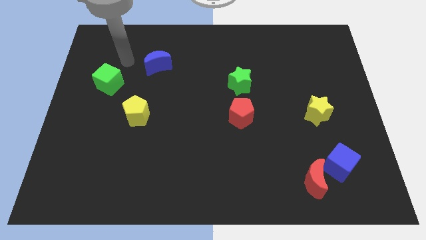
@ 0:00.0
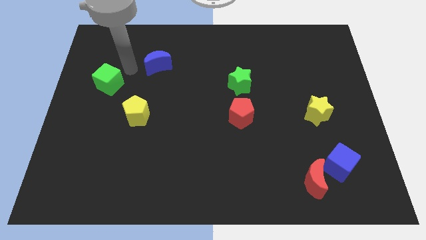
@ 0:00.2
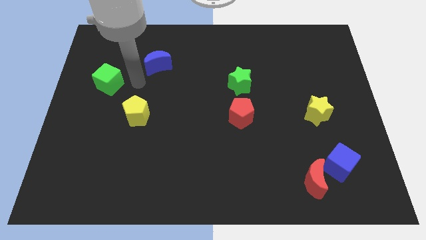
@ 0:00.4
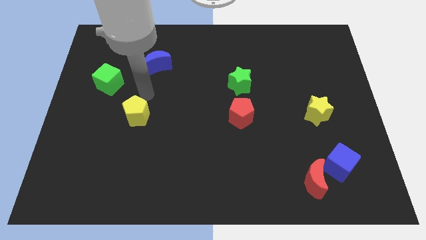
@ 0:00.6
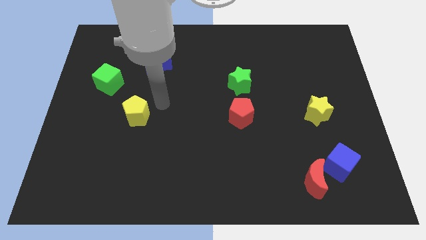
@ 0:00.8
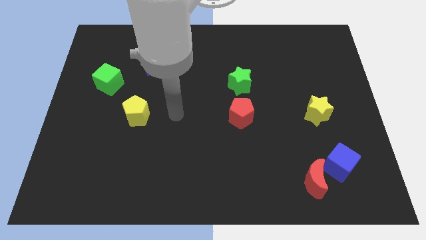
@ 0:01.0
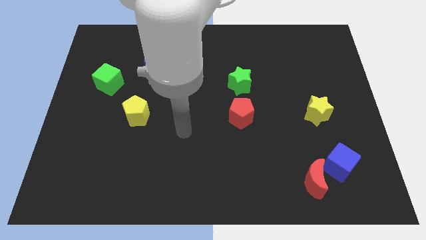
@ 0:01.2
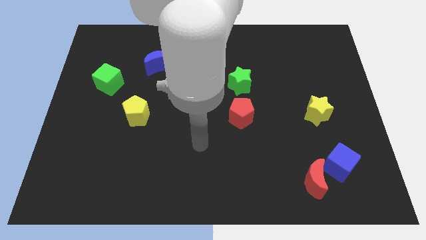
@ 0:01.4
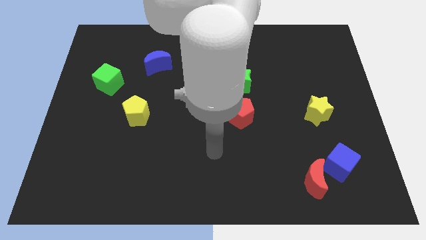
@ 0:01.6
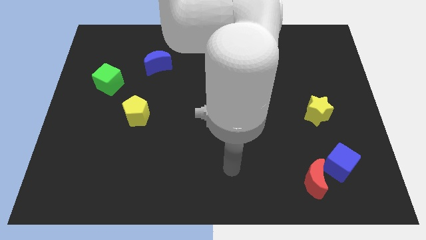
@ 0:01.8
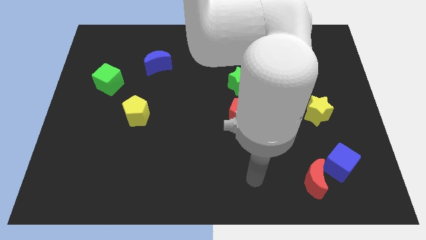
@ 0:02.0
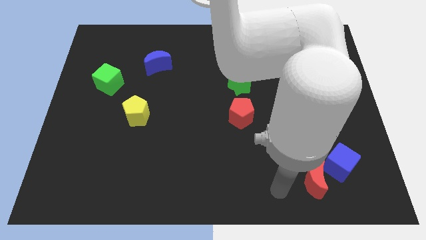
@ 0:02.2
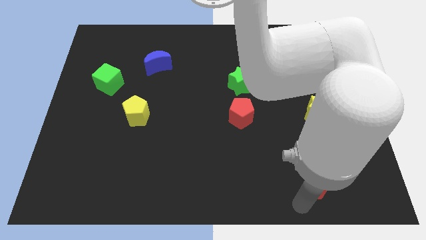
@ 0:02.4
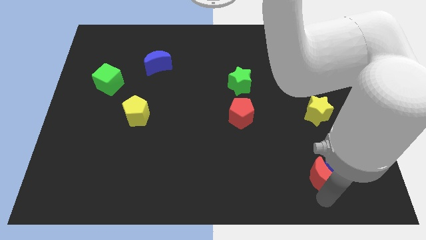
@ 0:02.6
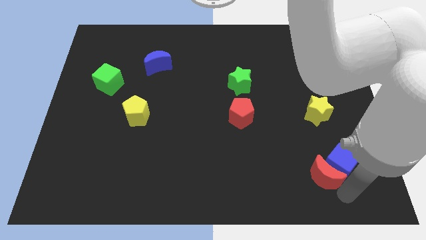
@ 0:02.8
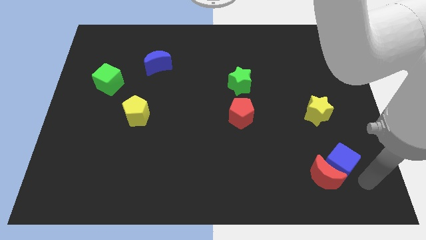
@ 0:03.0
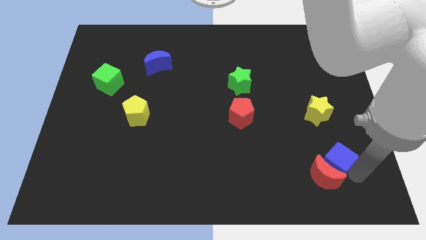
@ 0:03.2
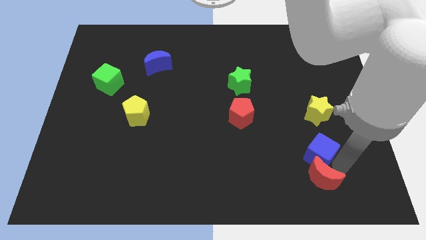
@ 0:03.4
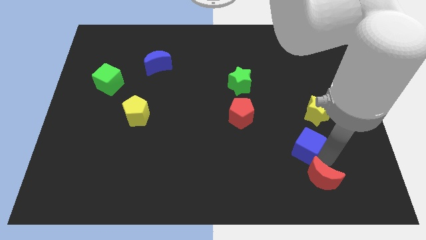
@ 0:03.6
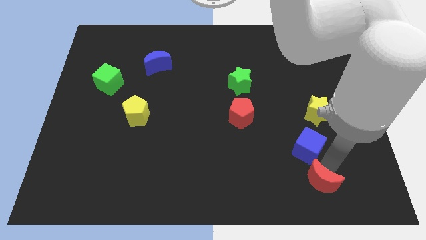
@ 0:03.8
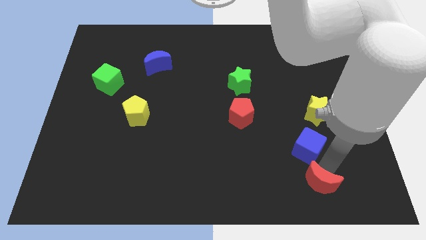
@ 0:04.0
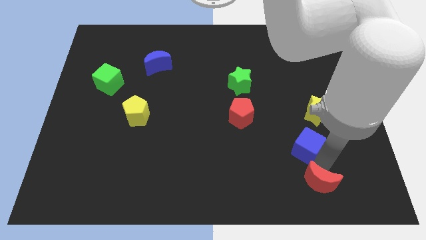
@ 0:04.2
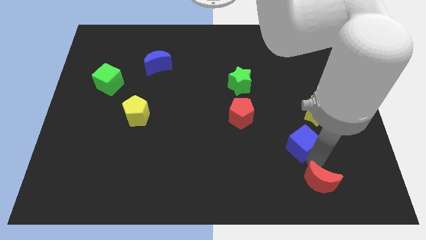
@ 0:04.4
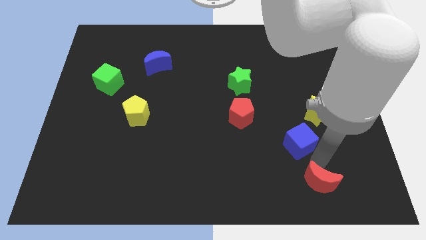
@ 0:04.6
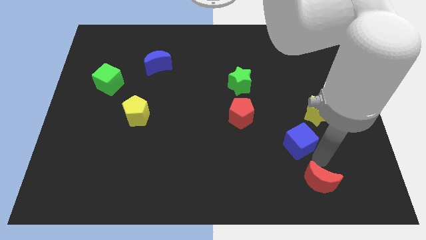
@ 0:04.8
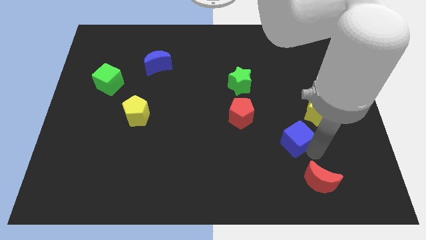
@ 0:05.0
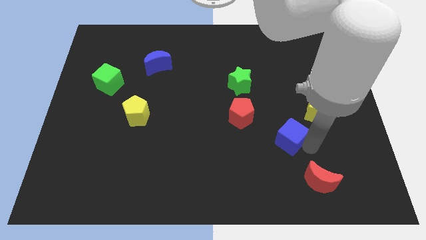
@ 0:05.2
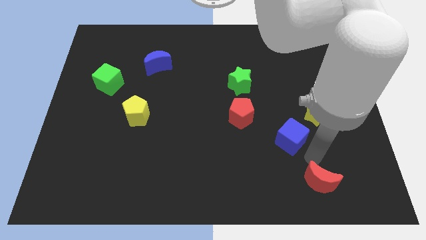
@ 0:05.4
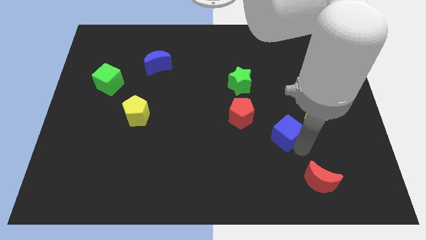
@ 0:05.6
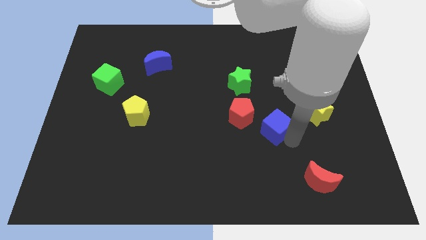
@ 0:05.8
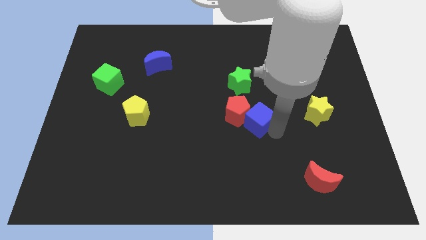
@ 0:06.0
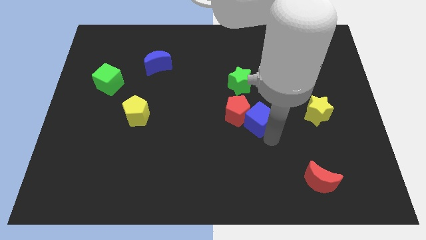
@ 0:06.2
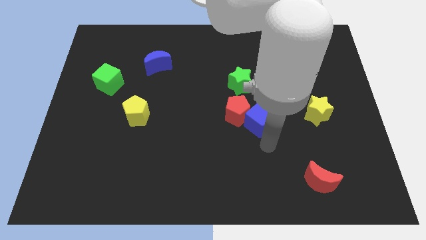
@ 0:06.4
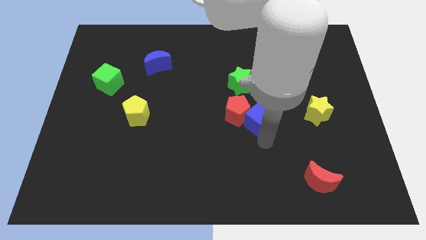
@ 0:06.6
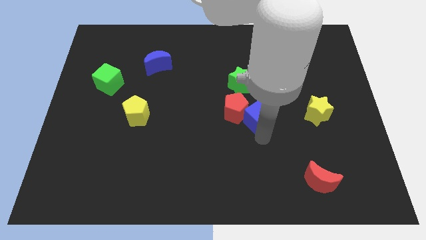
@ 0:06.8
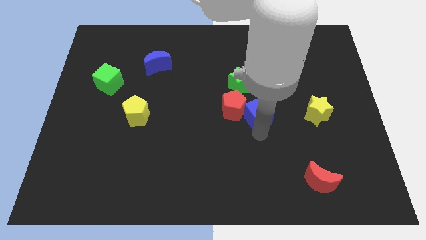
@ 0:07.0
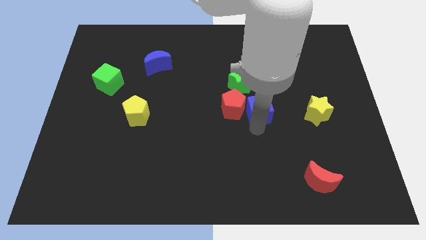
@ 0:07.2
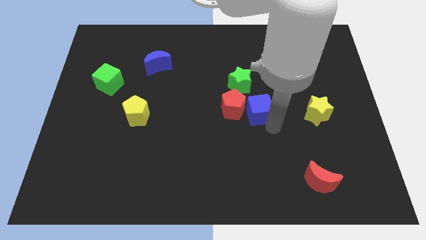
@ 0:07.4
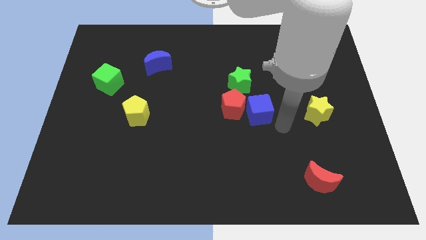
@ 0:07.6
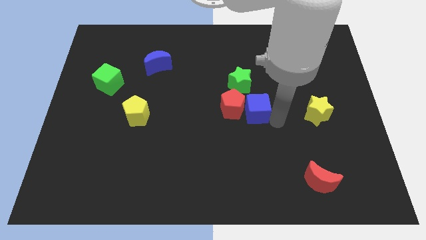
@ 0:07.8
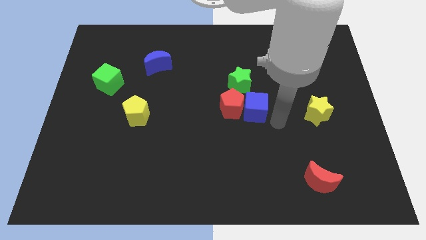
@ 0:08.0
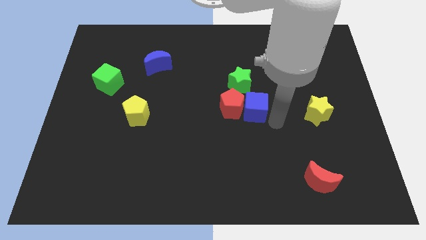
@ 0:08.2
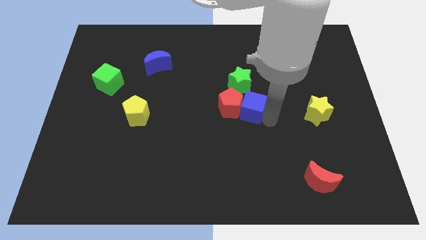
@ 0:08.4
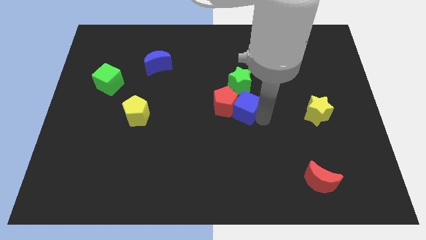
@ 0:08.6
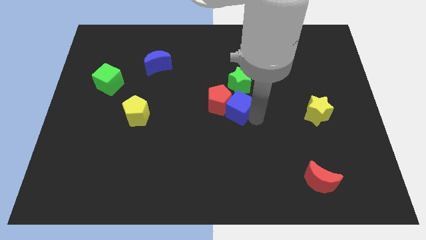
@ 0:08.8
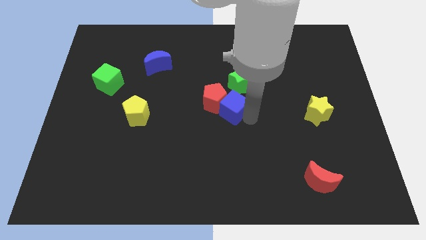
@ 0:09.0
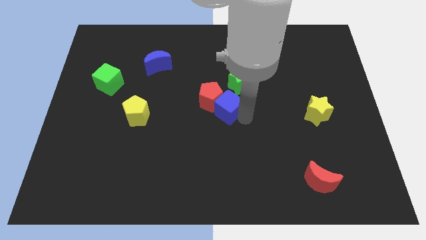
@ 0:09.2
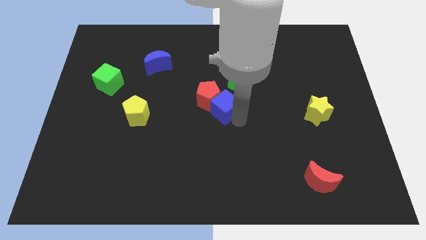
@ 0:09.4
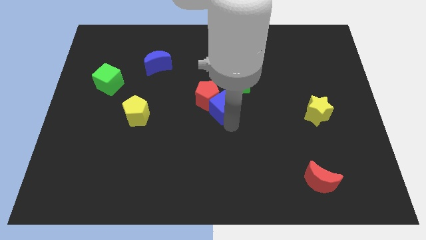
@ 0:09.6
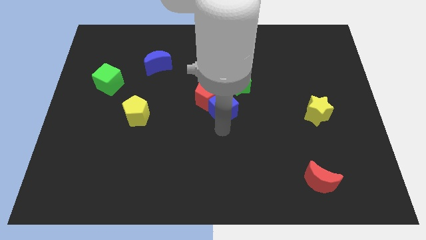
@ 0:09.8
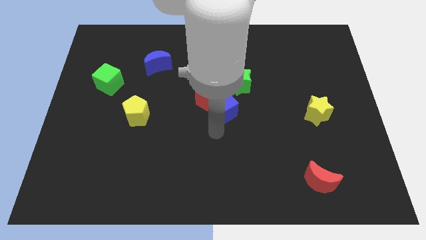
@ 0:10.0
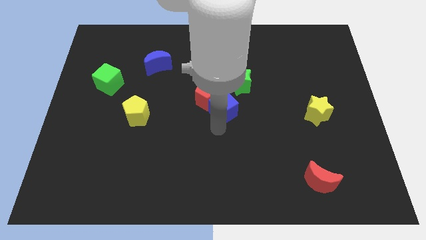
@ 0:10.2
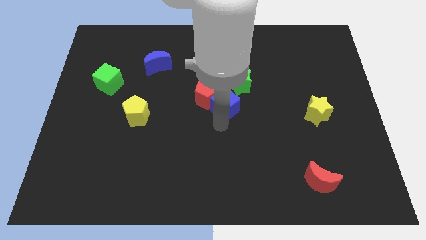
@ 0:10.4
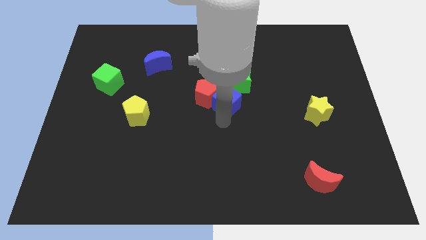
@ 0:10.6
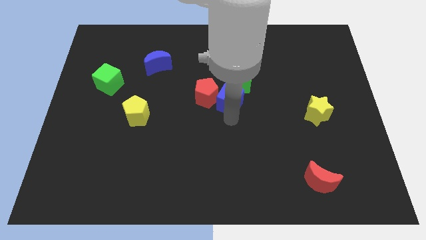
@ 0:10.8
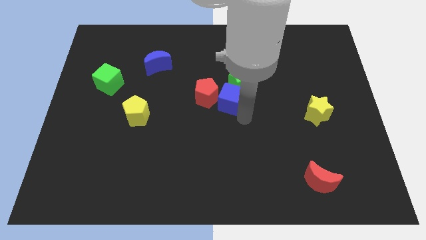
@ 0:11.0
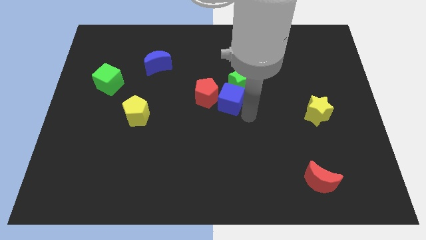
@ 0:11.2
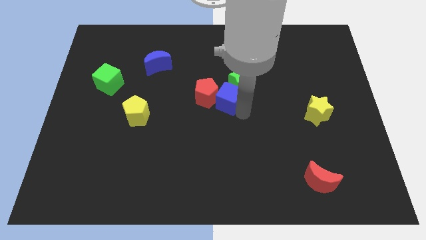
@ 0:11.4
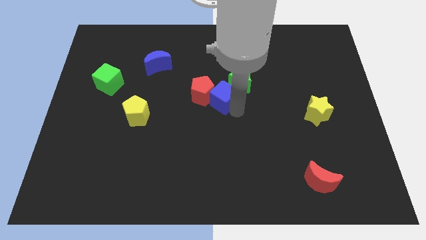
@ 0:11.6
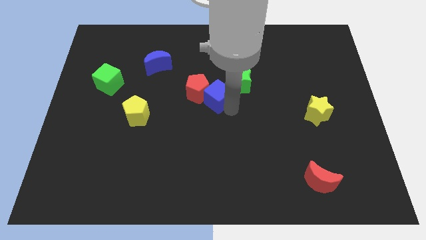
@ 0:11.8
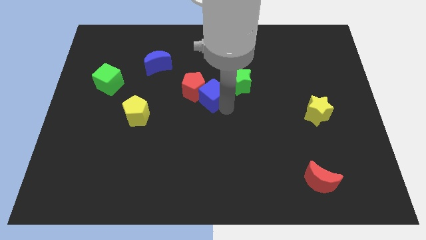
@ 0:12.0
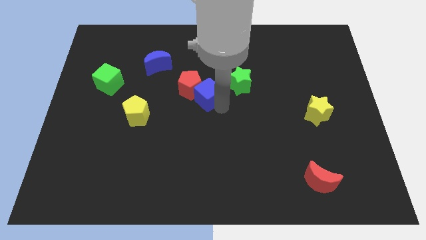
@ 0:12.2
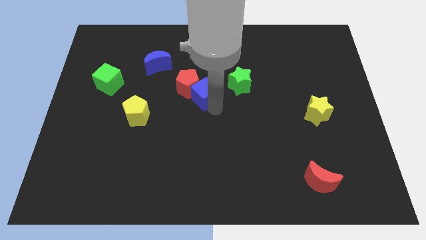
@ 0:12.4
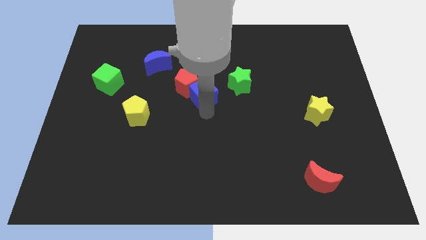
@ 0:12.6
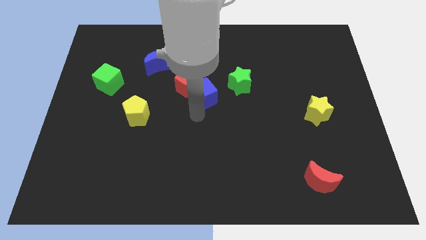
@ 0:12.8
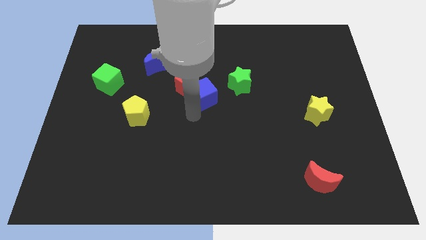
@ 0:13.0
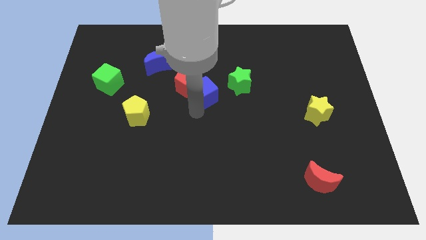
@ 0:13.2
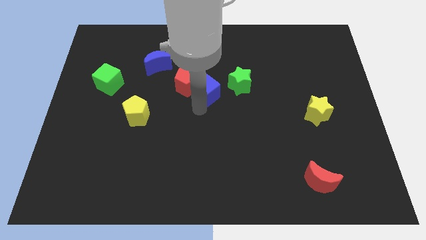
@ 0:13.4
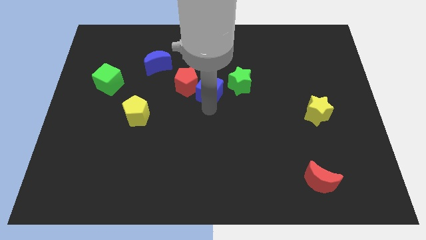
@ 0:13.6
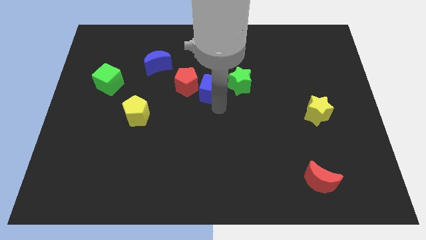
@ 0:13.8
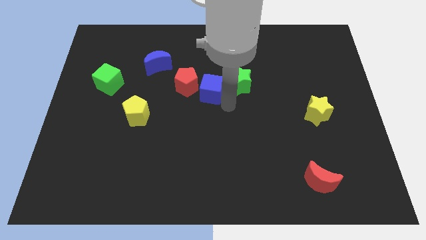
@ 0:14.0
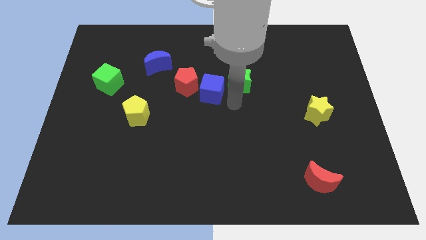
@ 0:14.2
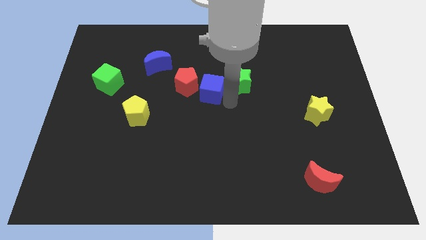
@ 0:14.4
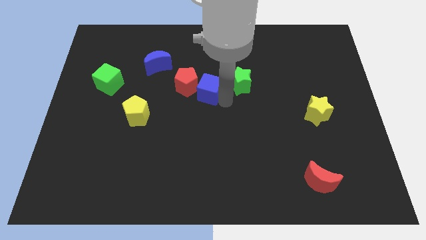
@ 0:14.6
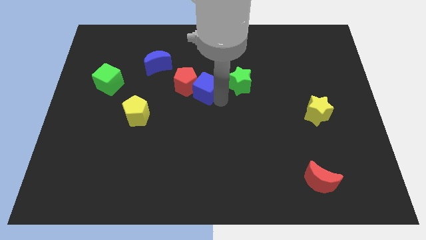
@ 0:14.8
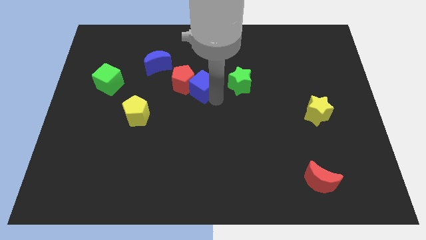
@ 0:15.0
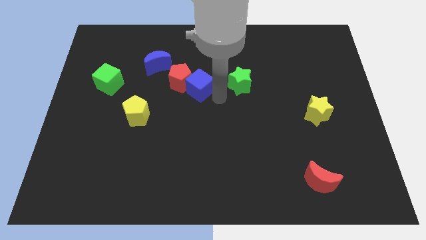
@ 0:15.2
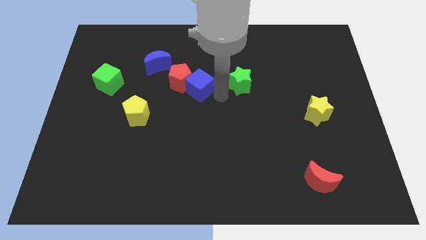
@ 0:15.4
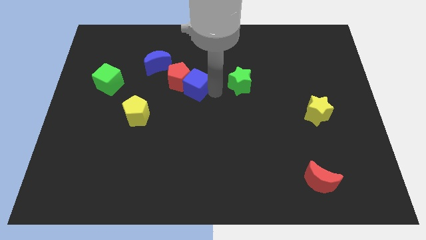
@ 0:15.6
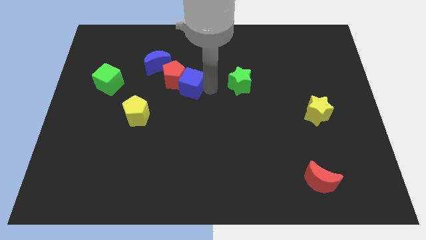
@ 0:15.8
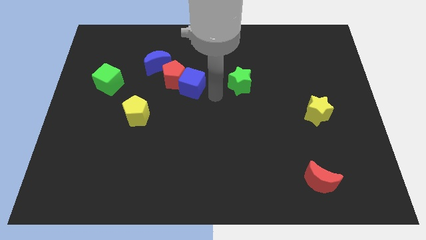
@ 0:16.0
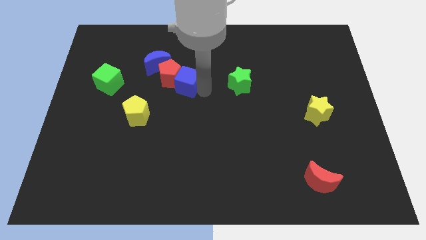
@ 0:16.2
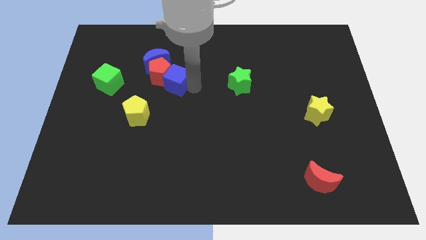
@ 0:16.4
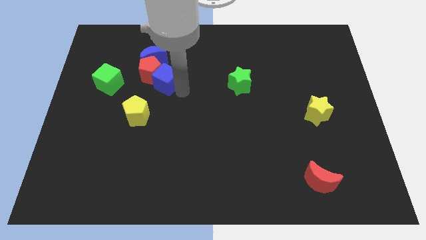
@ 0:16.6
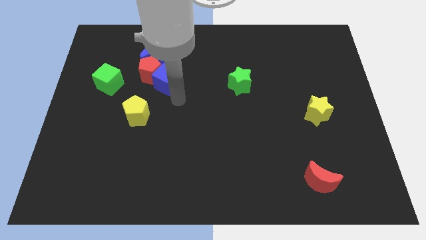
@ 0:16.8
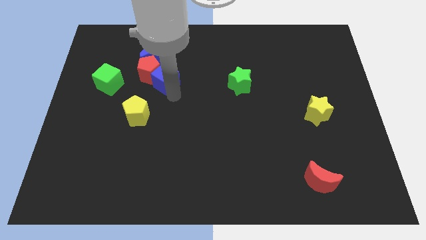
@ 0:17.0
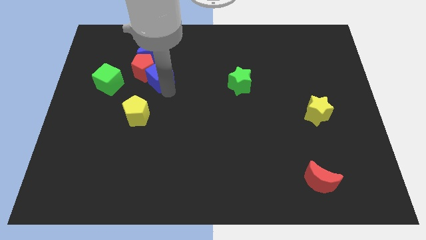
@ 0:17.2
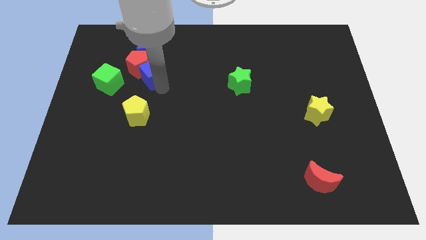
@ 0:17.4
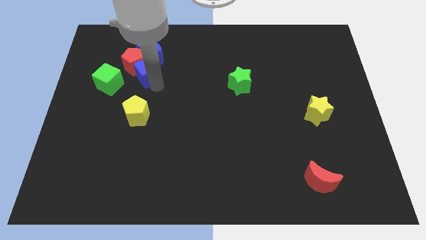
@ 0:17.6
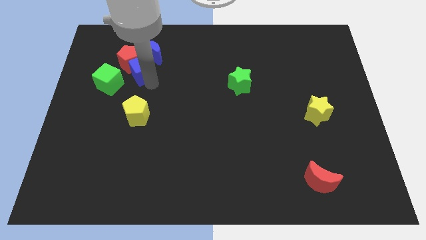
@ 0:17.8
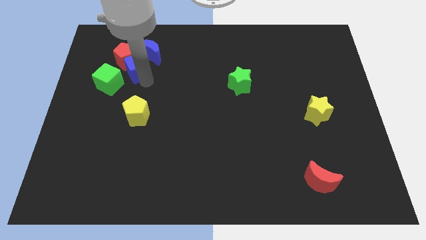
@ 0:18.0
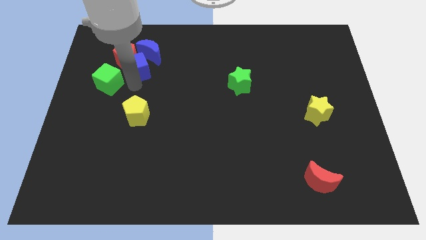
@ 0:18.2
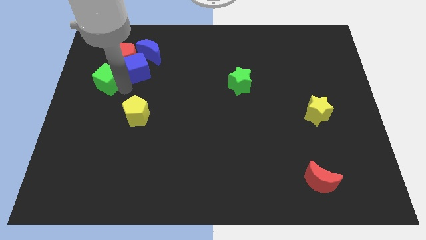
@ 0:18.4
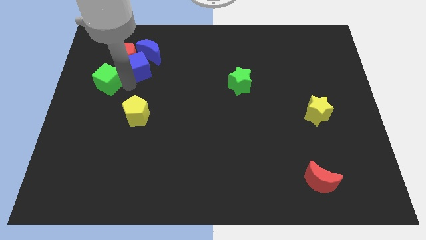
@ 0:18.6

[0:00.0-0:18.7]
push the blue cube to the blue moon
